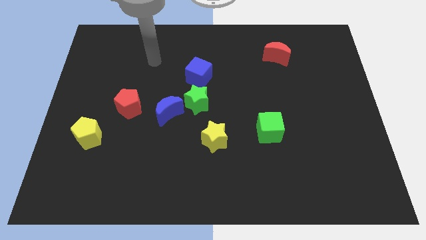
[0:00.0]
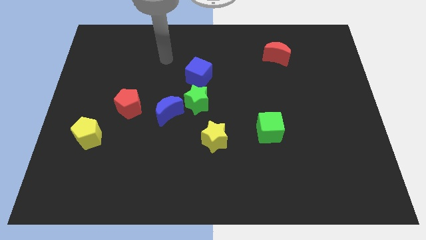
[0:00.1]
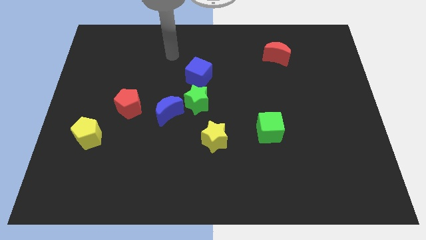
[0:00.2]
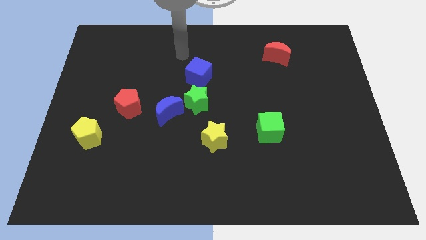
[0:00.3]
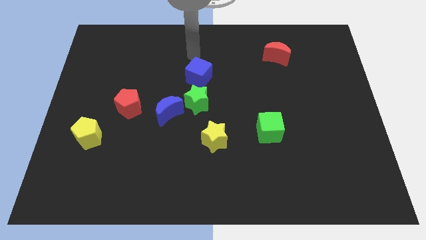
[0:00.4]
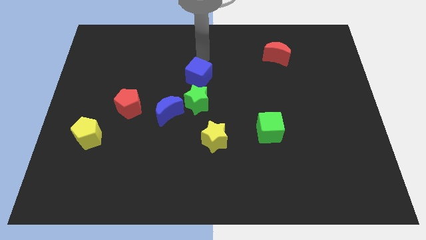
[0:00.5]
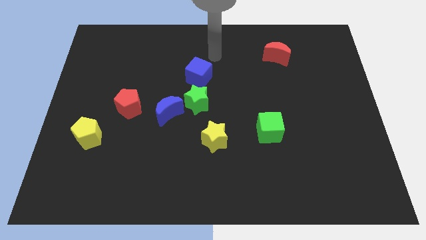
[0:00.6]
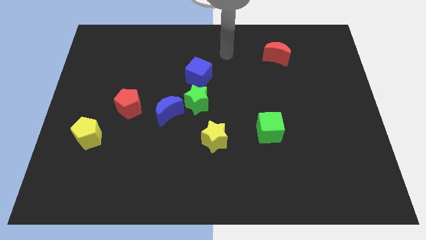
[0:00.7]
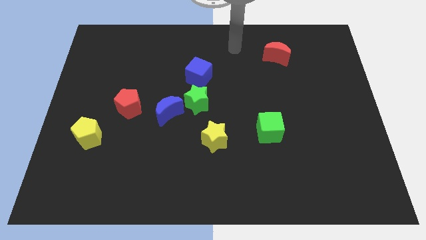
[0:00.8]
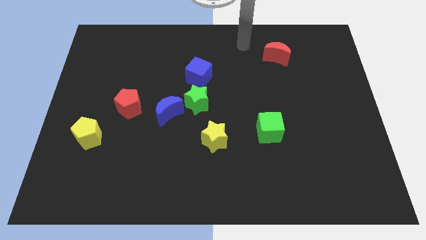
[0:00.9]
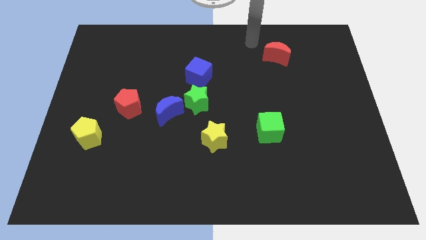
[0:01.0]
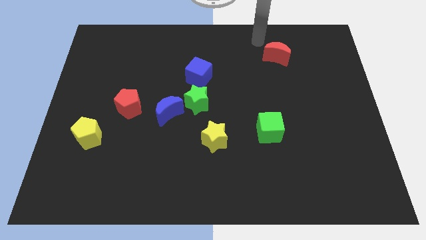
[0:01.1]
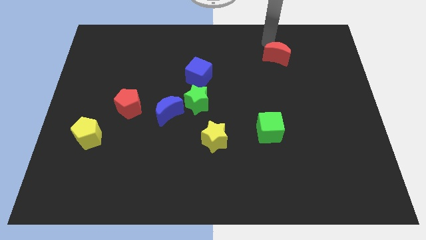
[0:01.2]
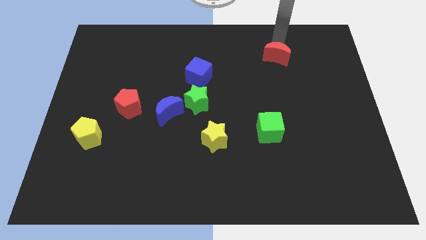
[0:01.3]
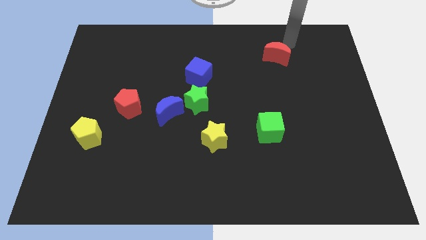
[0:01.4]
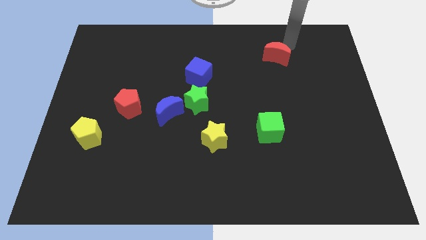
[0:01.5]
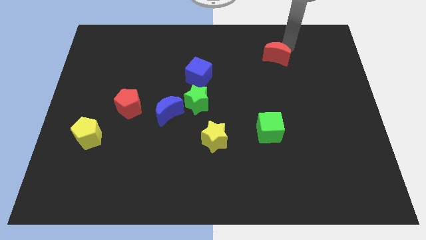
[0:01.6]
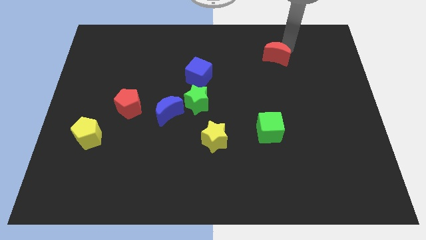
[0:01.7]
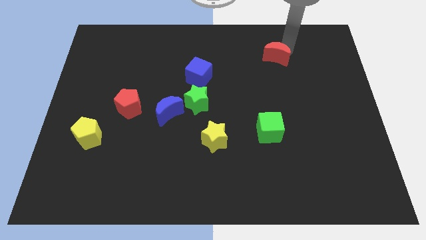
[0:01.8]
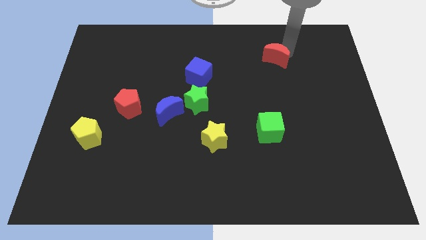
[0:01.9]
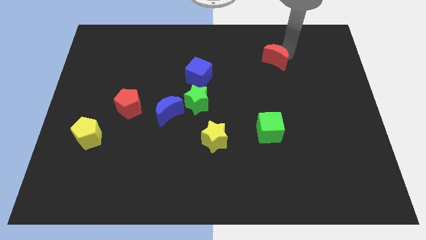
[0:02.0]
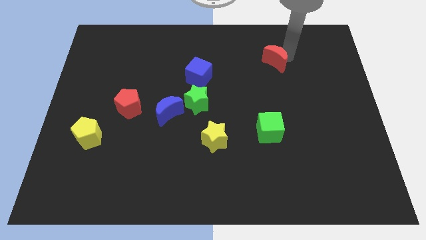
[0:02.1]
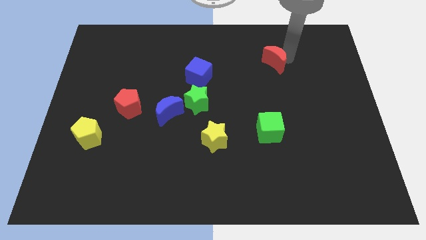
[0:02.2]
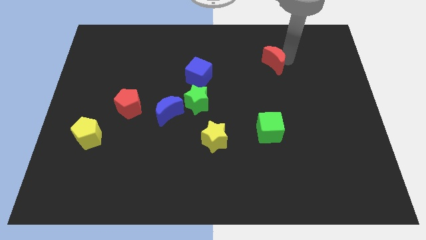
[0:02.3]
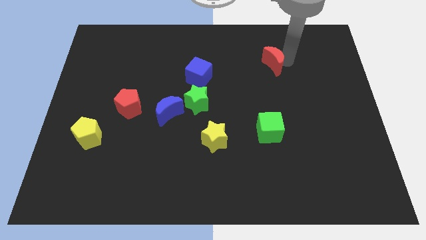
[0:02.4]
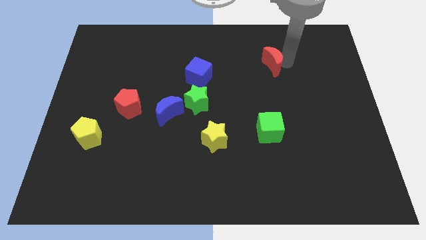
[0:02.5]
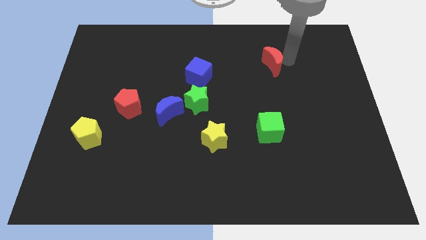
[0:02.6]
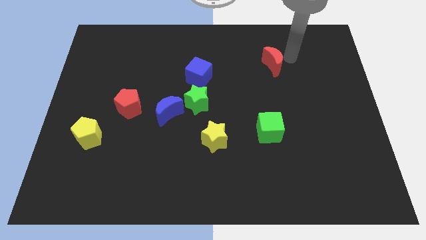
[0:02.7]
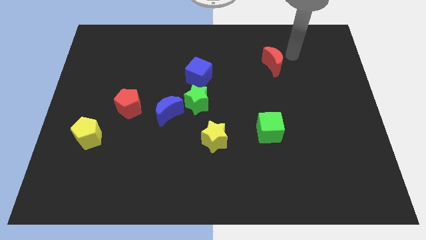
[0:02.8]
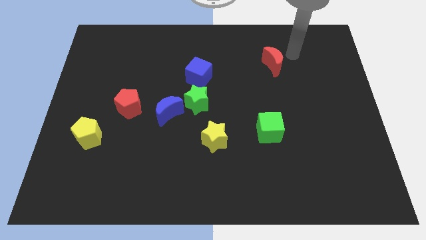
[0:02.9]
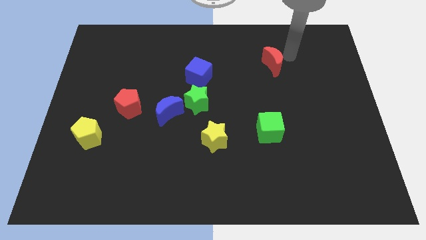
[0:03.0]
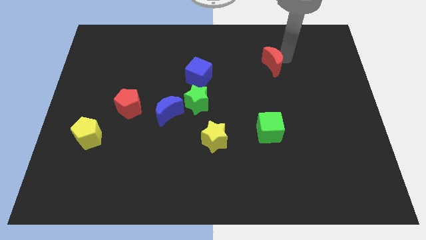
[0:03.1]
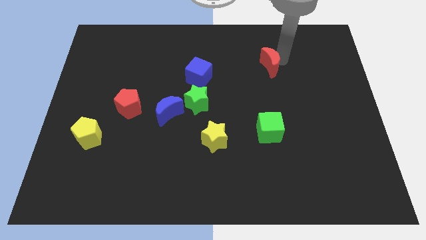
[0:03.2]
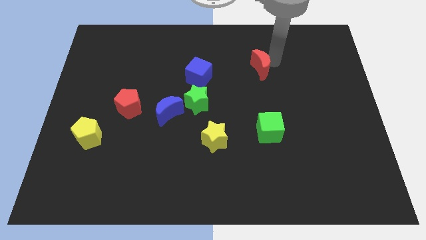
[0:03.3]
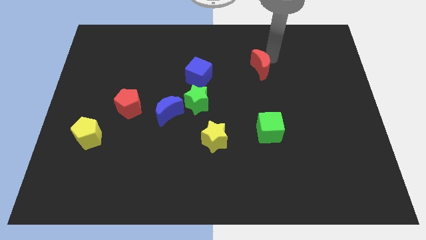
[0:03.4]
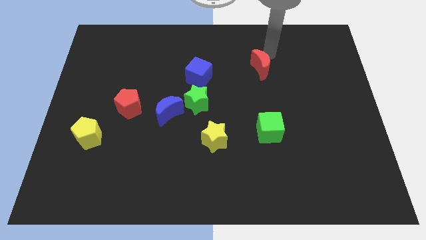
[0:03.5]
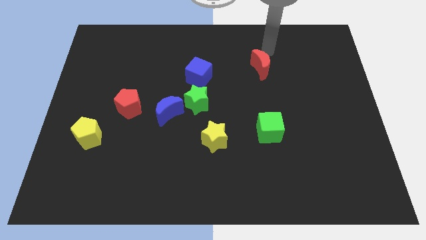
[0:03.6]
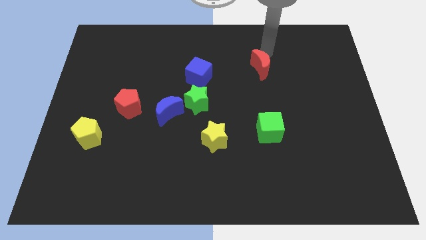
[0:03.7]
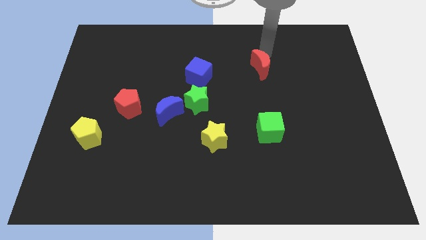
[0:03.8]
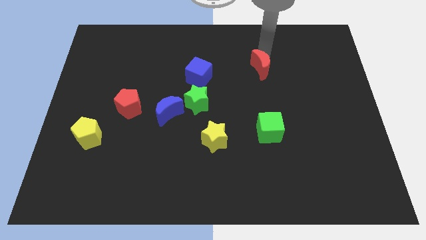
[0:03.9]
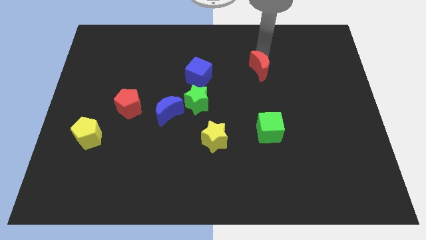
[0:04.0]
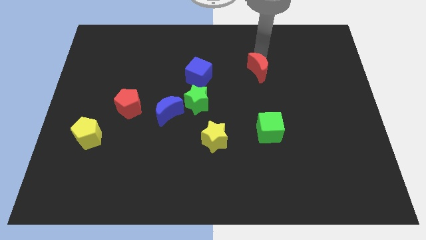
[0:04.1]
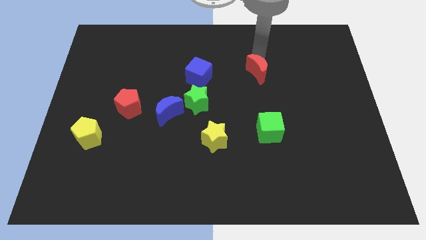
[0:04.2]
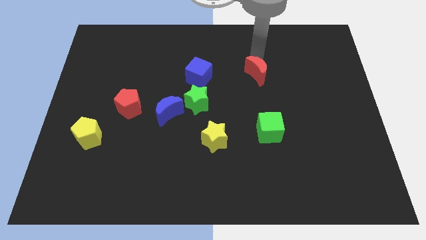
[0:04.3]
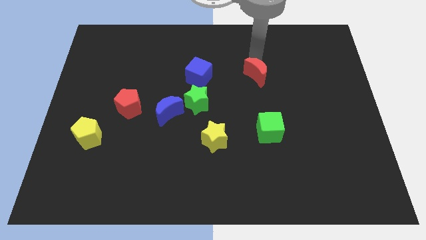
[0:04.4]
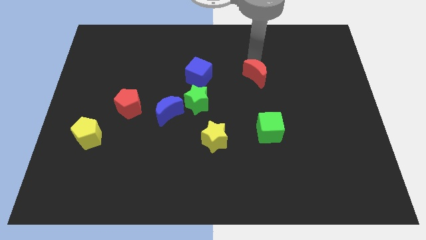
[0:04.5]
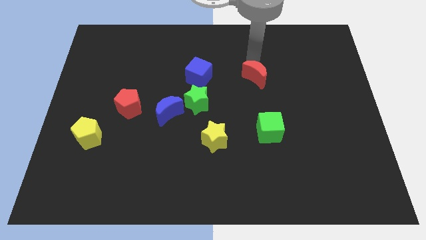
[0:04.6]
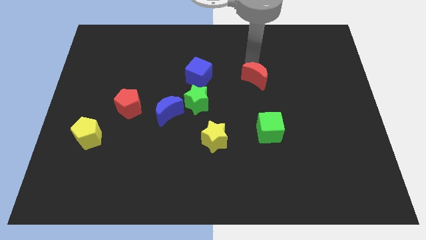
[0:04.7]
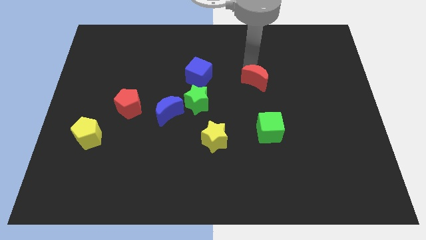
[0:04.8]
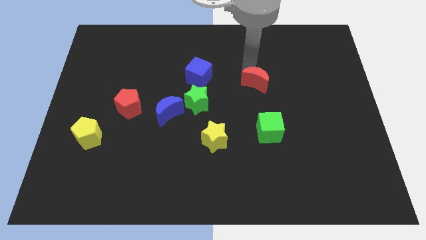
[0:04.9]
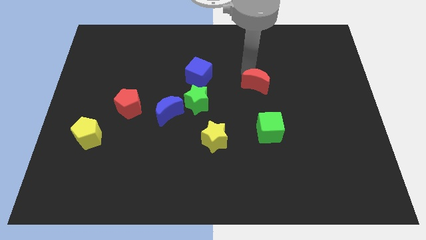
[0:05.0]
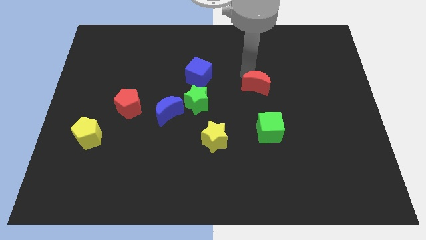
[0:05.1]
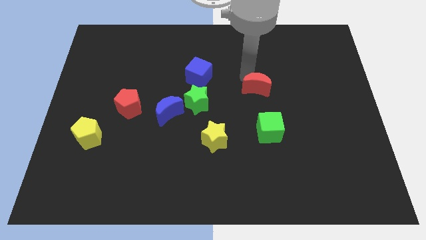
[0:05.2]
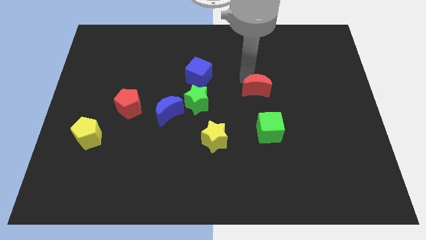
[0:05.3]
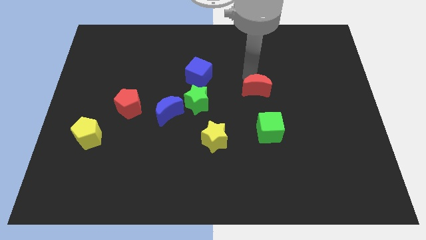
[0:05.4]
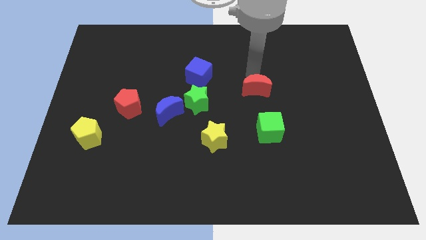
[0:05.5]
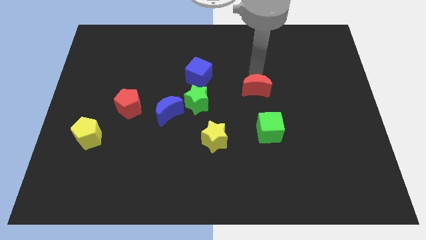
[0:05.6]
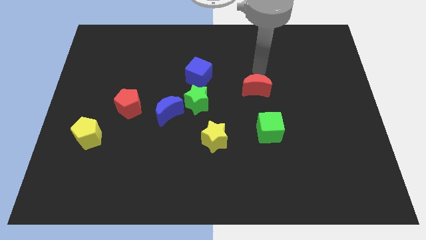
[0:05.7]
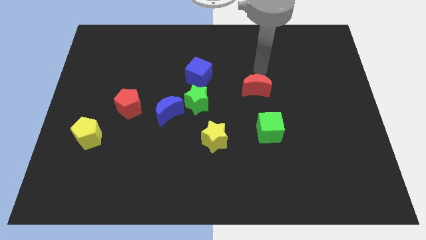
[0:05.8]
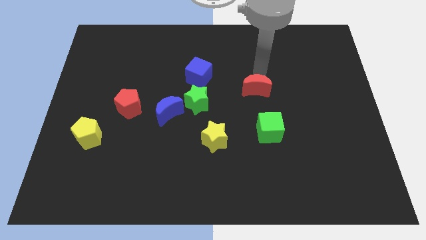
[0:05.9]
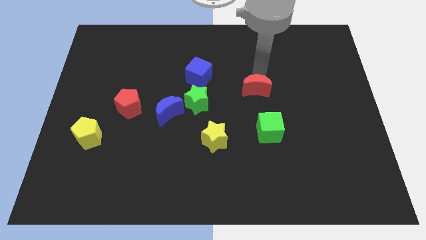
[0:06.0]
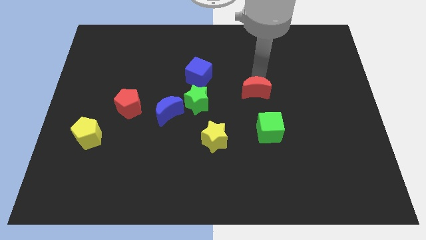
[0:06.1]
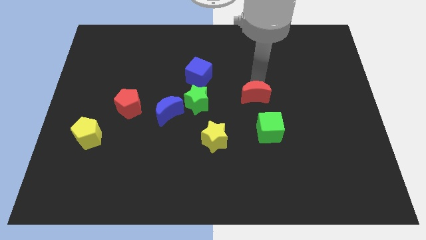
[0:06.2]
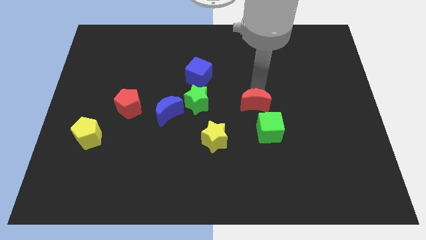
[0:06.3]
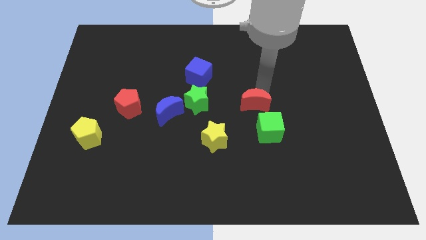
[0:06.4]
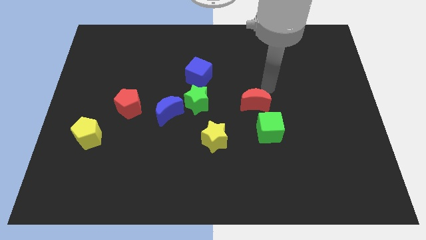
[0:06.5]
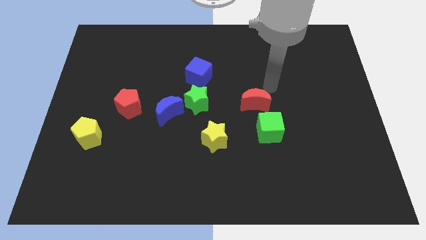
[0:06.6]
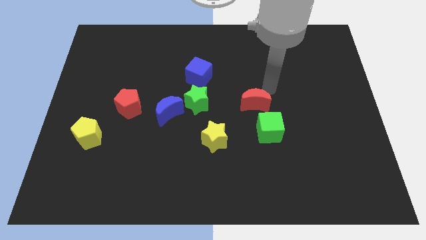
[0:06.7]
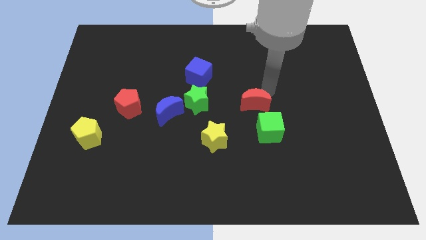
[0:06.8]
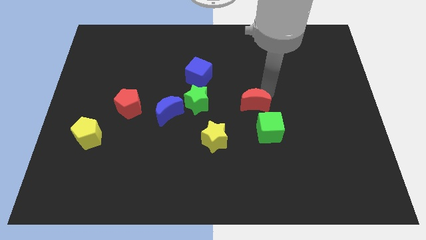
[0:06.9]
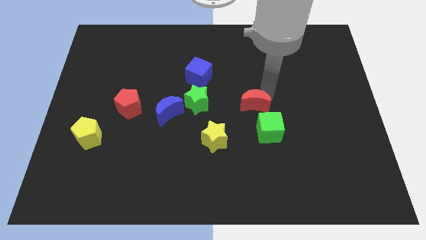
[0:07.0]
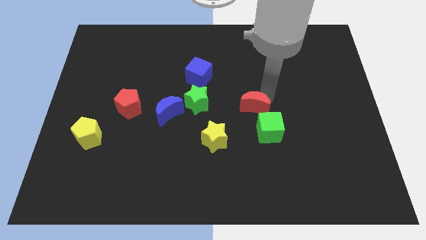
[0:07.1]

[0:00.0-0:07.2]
put the red moon to the top right of the yellow star
